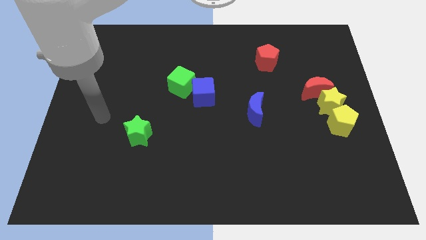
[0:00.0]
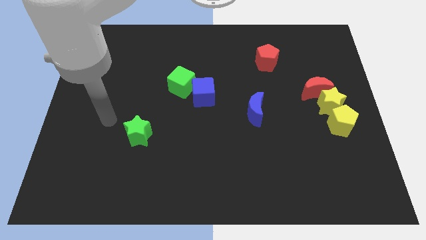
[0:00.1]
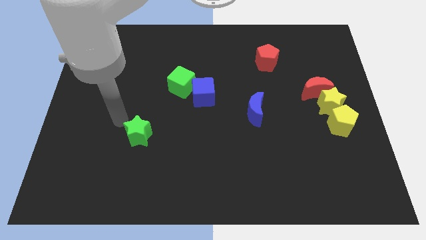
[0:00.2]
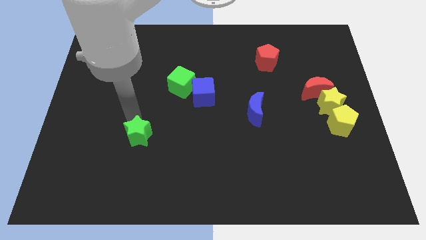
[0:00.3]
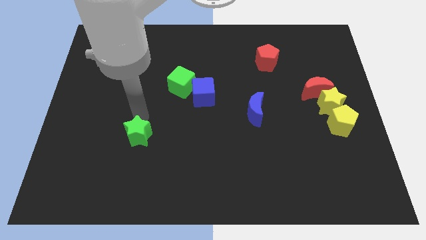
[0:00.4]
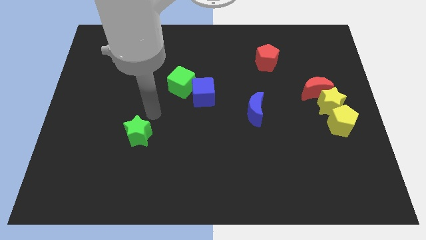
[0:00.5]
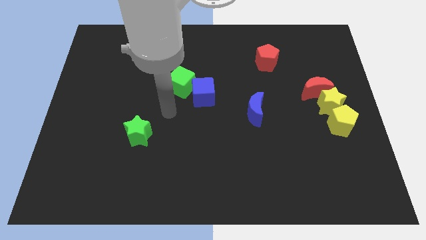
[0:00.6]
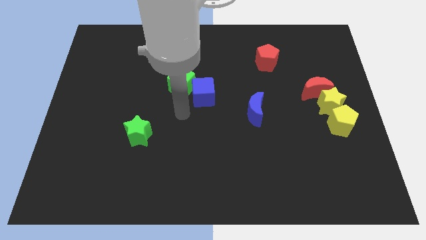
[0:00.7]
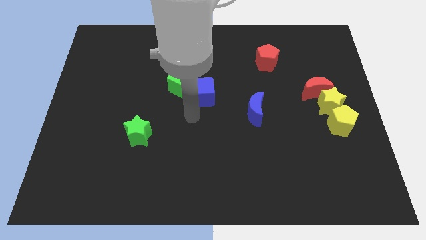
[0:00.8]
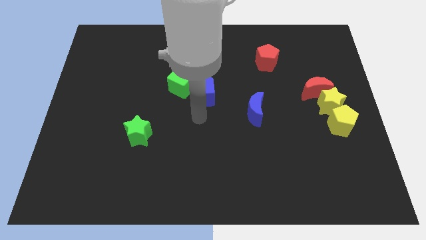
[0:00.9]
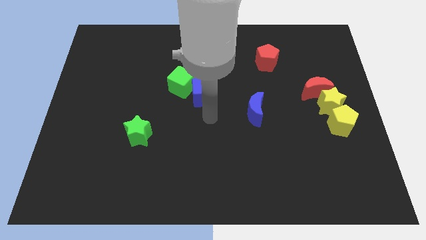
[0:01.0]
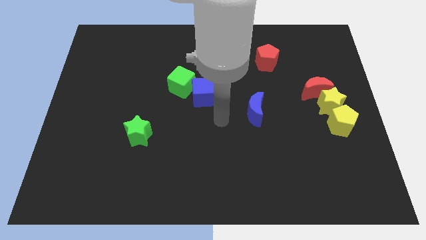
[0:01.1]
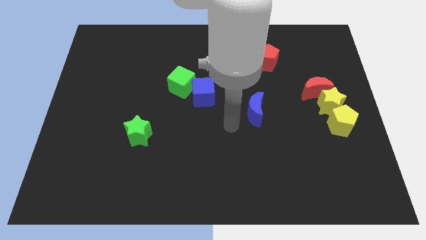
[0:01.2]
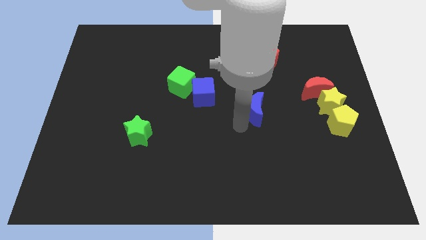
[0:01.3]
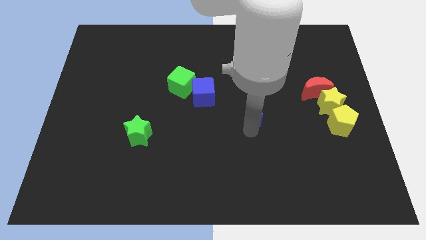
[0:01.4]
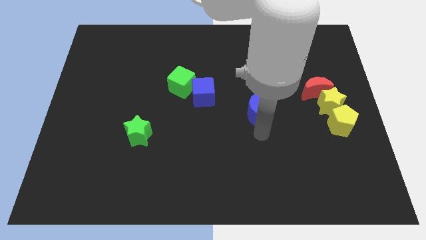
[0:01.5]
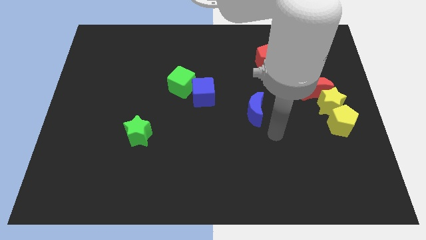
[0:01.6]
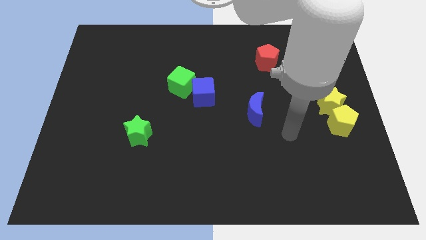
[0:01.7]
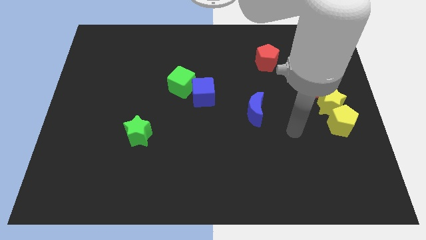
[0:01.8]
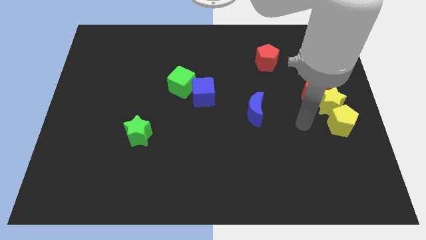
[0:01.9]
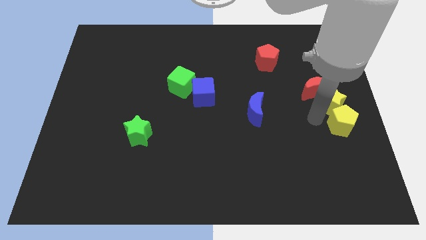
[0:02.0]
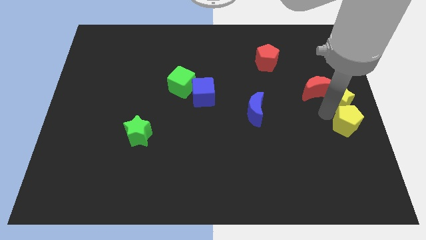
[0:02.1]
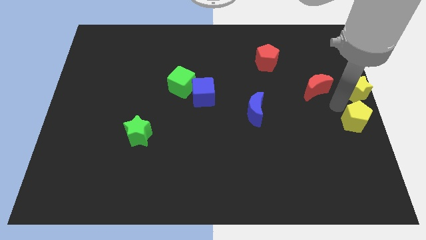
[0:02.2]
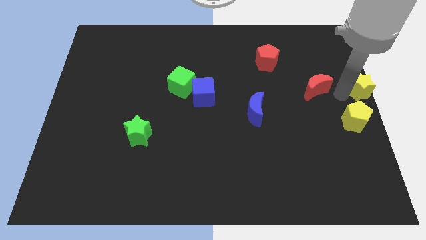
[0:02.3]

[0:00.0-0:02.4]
pull the red moon apart from the yellow star

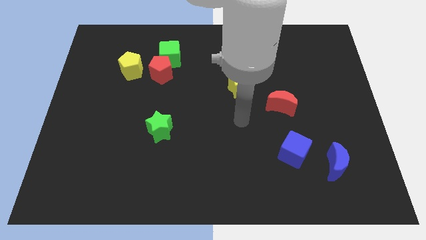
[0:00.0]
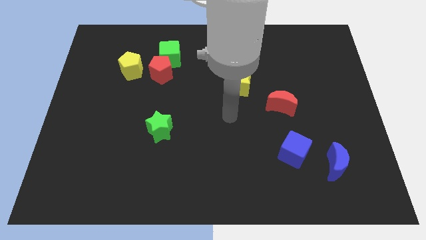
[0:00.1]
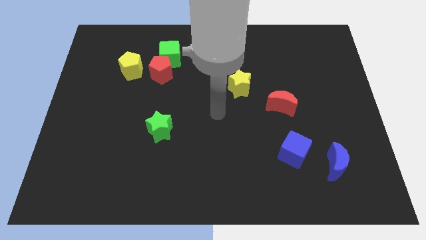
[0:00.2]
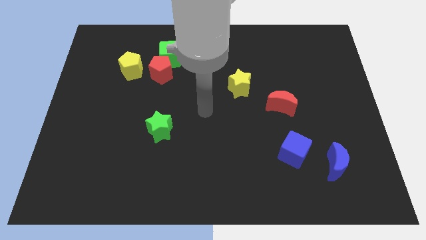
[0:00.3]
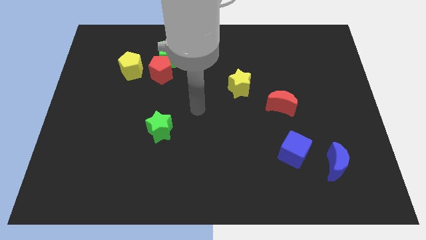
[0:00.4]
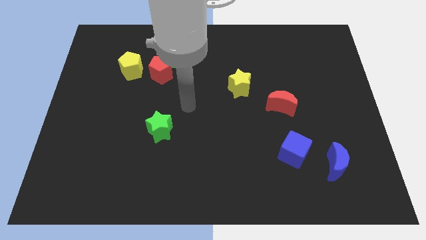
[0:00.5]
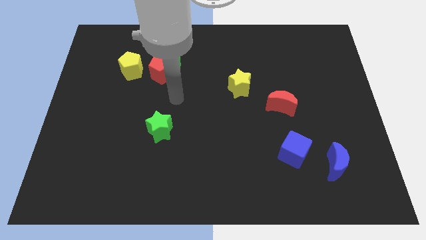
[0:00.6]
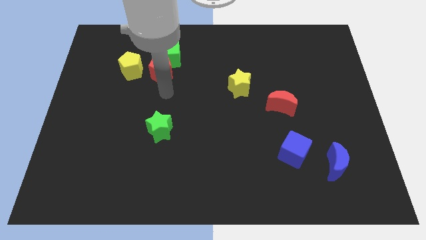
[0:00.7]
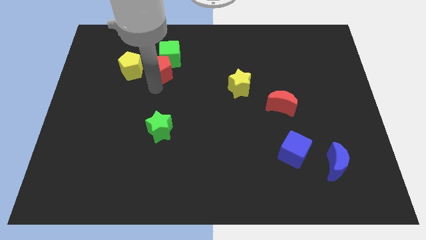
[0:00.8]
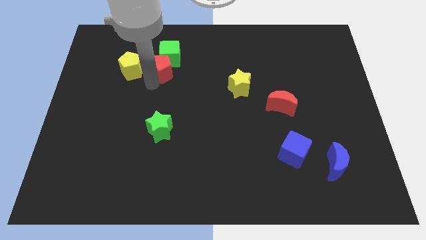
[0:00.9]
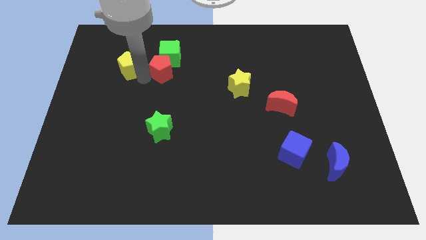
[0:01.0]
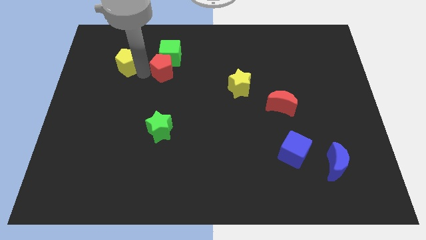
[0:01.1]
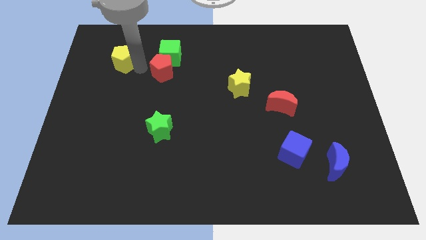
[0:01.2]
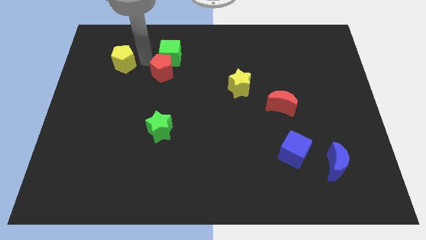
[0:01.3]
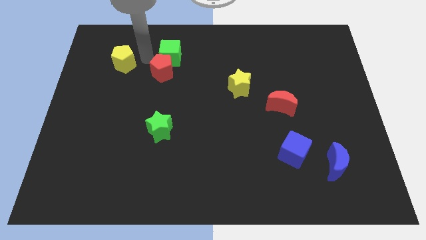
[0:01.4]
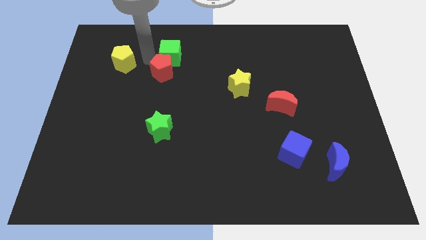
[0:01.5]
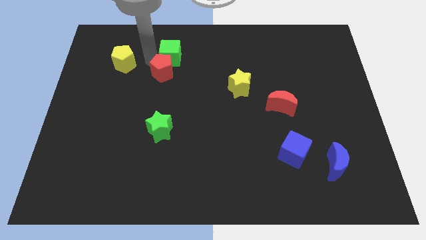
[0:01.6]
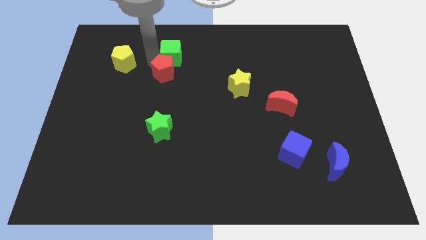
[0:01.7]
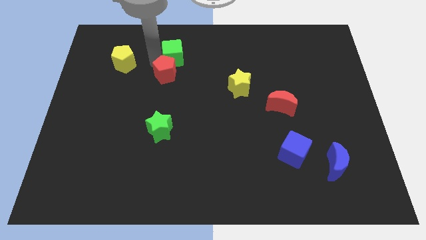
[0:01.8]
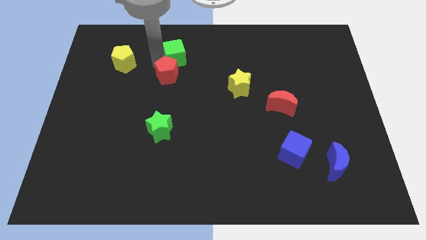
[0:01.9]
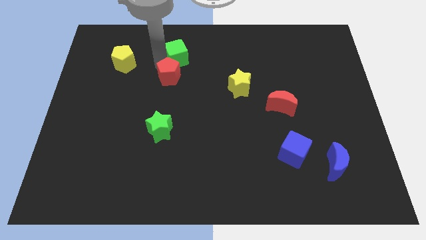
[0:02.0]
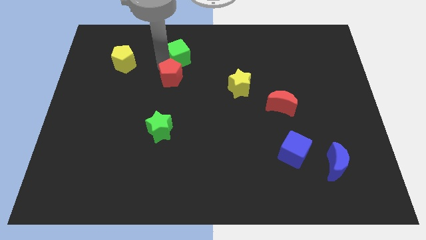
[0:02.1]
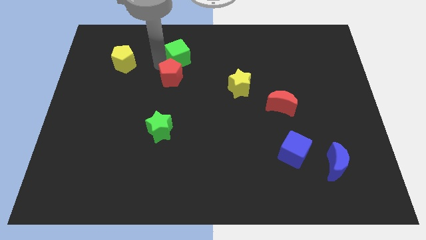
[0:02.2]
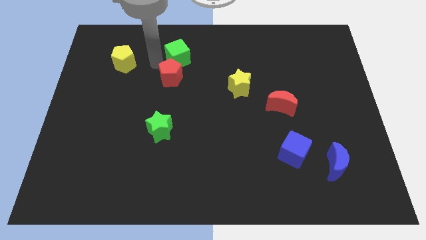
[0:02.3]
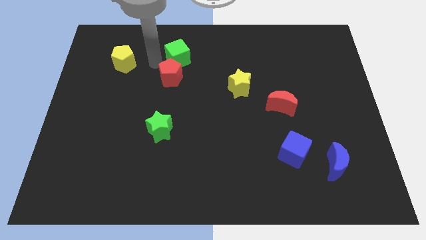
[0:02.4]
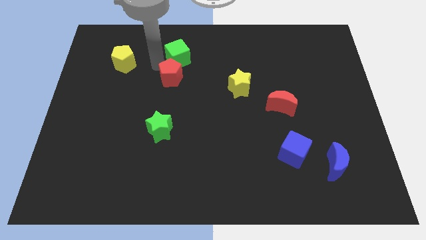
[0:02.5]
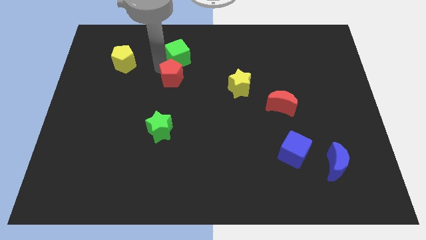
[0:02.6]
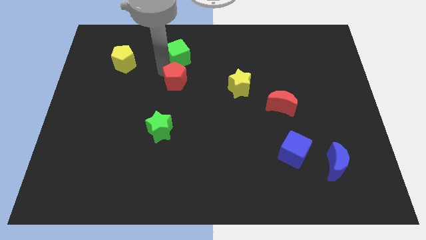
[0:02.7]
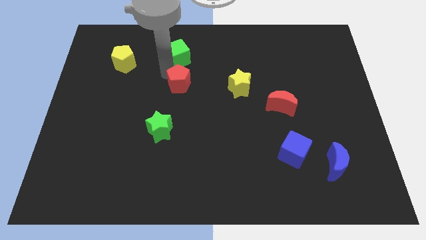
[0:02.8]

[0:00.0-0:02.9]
move the red pentagon away from the green cube and yellow pentagon

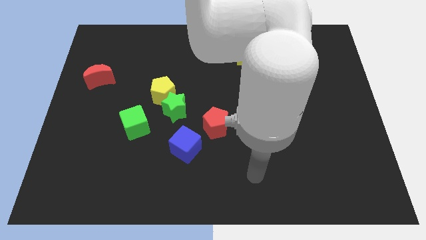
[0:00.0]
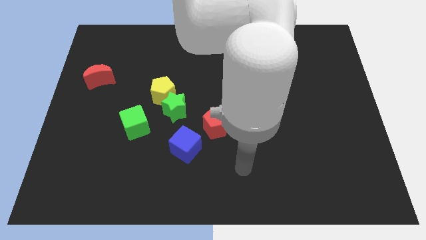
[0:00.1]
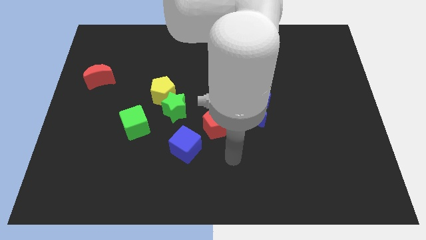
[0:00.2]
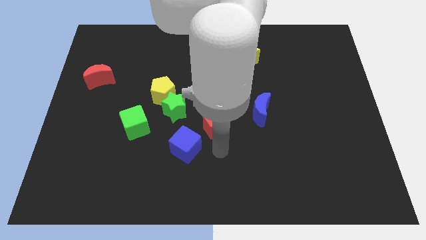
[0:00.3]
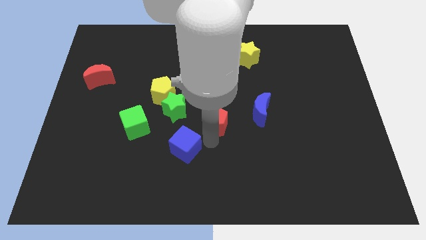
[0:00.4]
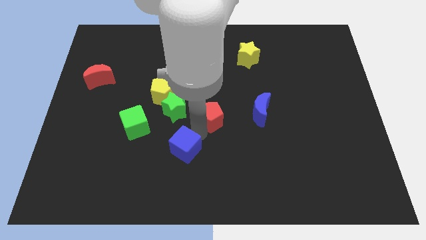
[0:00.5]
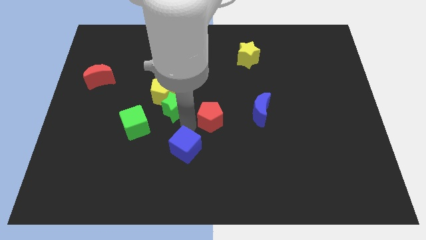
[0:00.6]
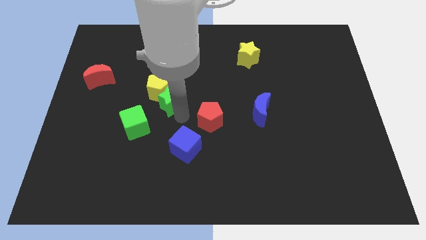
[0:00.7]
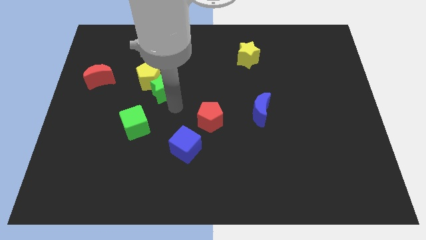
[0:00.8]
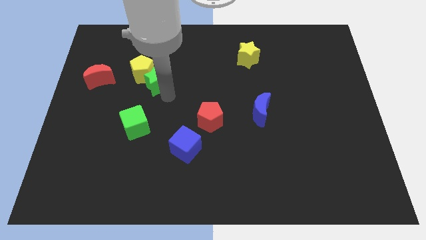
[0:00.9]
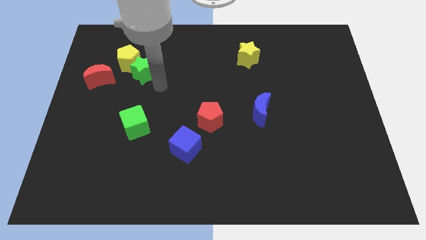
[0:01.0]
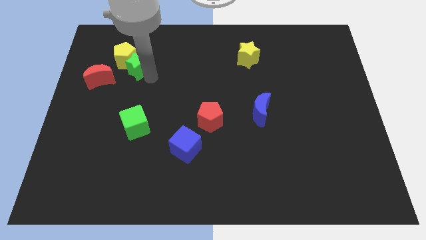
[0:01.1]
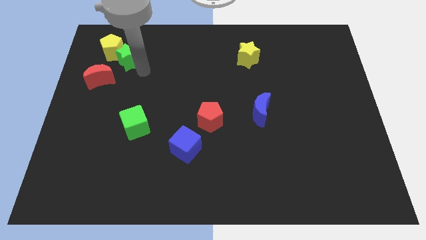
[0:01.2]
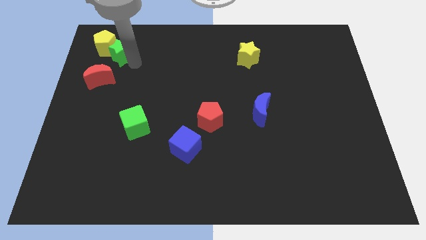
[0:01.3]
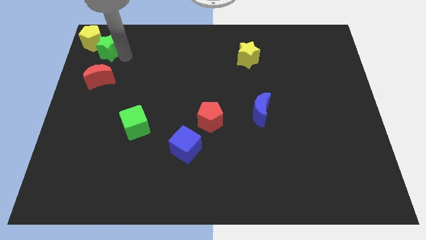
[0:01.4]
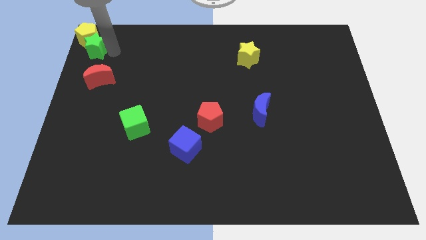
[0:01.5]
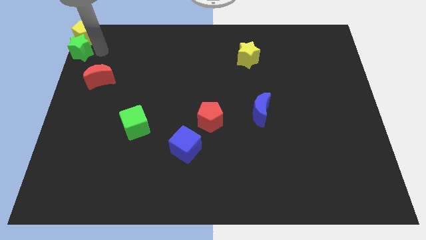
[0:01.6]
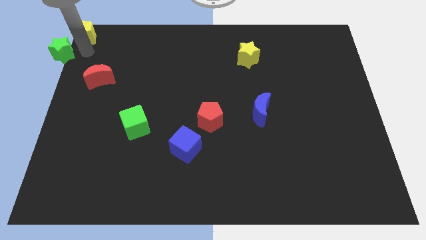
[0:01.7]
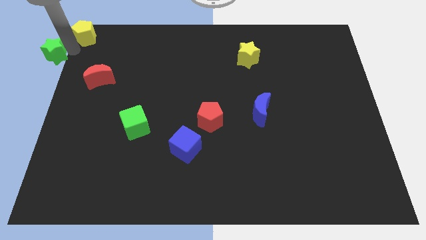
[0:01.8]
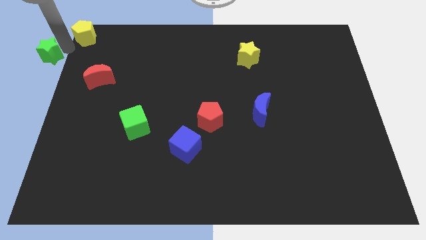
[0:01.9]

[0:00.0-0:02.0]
pull the yellow pentagon apart from the green star

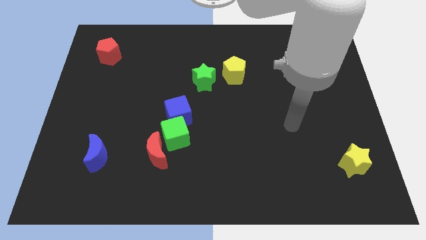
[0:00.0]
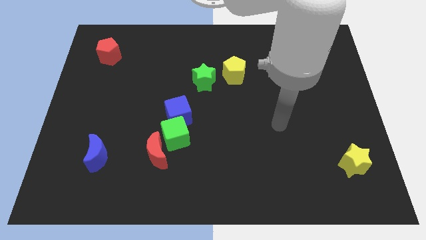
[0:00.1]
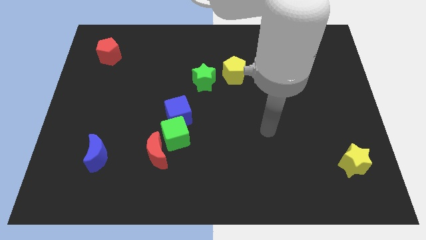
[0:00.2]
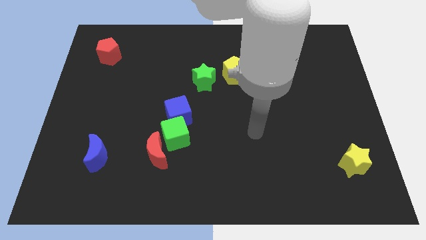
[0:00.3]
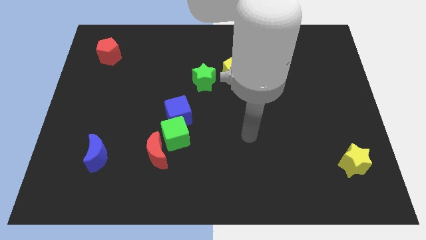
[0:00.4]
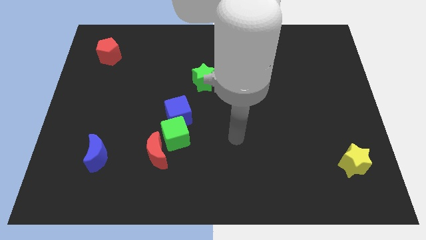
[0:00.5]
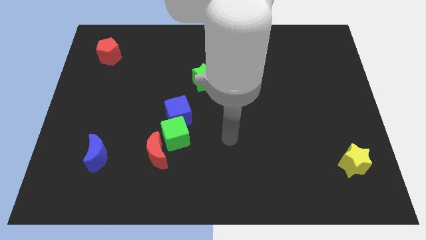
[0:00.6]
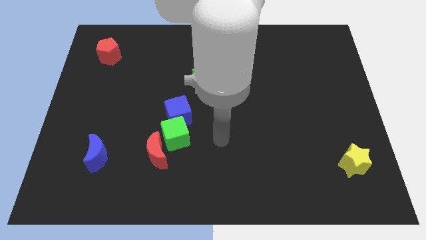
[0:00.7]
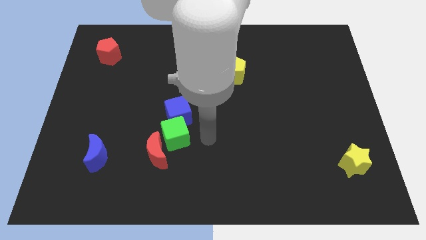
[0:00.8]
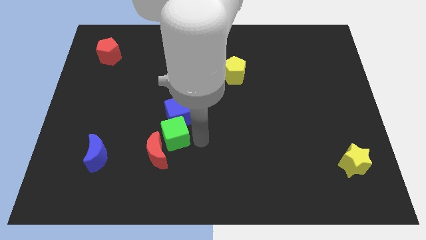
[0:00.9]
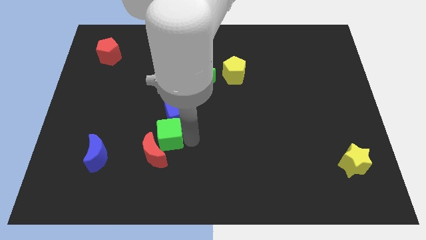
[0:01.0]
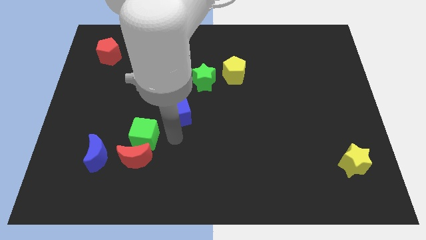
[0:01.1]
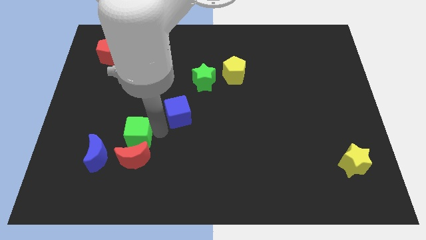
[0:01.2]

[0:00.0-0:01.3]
separate the blue cube from the green cube

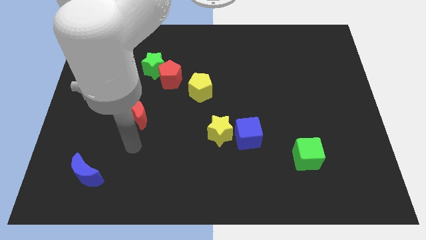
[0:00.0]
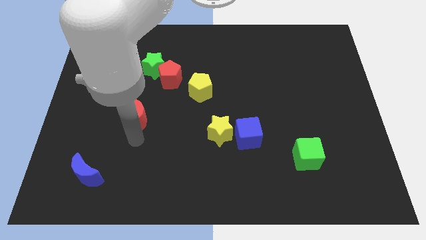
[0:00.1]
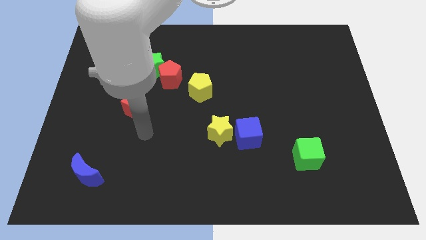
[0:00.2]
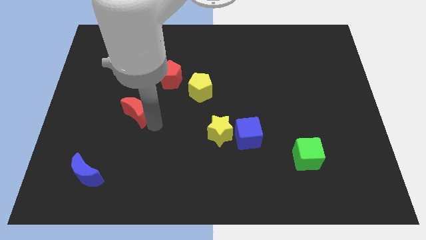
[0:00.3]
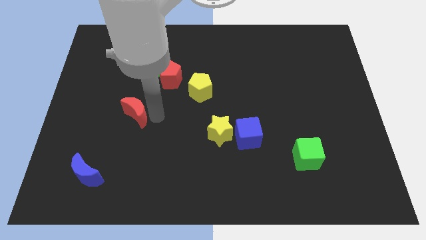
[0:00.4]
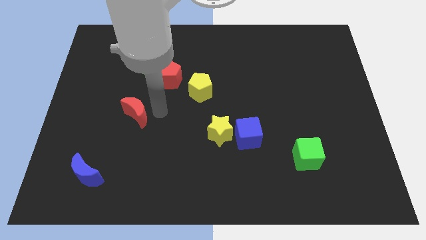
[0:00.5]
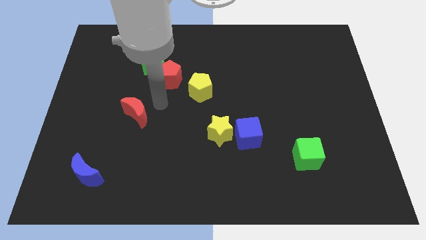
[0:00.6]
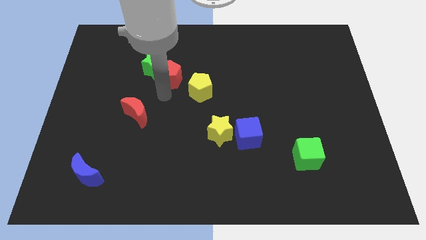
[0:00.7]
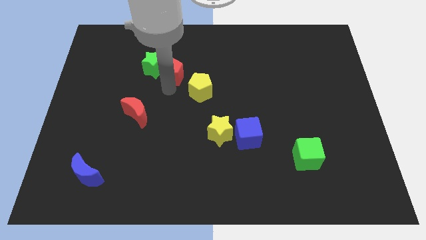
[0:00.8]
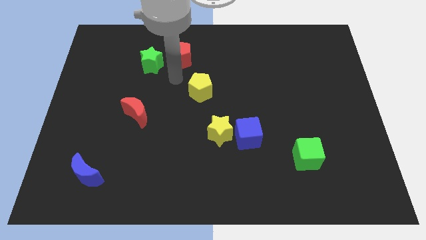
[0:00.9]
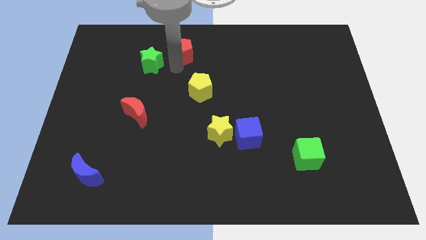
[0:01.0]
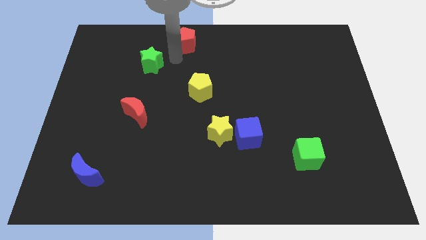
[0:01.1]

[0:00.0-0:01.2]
separate the green star from the red pentagon
